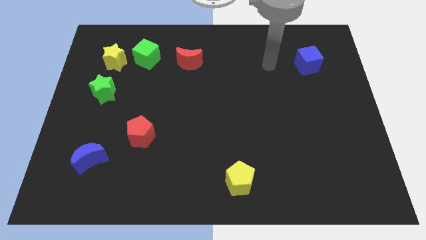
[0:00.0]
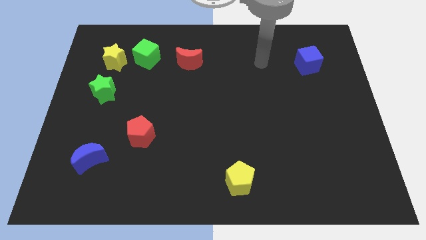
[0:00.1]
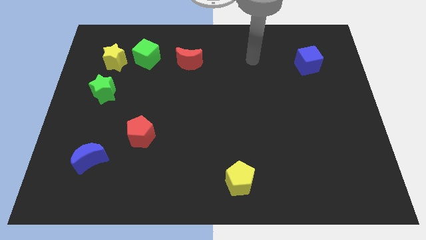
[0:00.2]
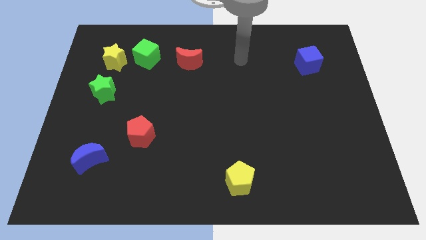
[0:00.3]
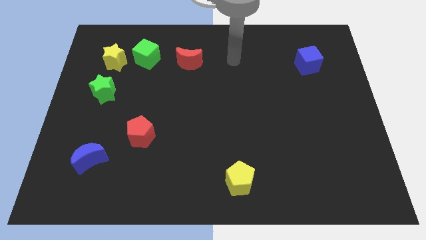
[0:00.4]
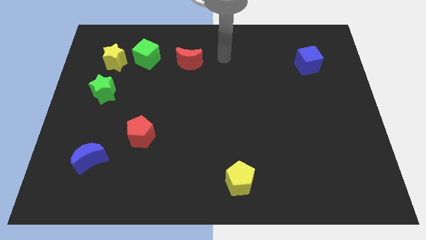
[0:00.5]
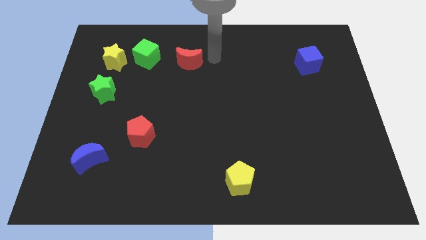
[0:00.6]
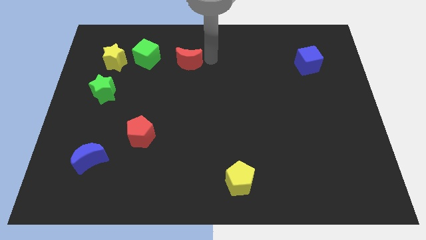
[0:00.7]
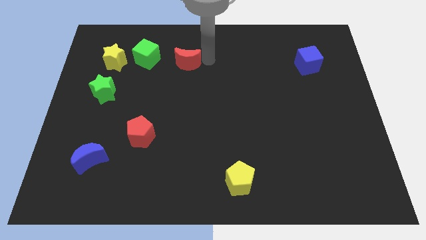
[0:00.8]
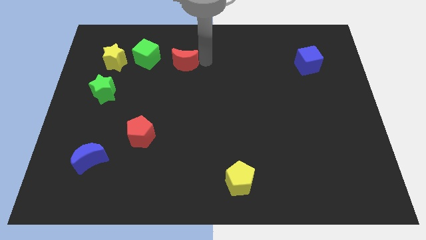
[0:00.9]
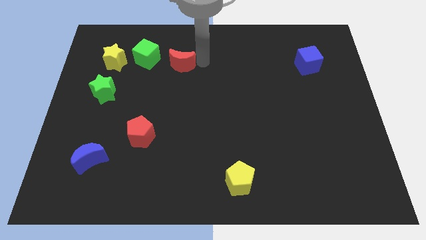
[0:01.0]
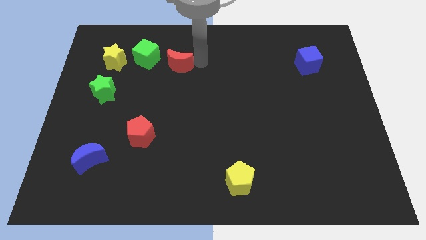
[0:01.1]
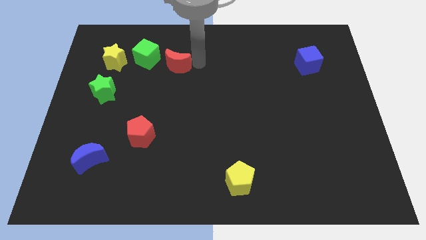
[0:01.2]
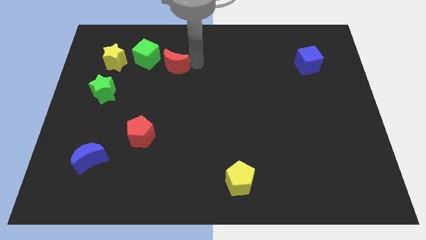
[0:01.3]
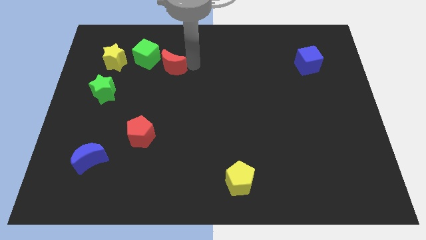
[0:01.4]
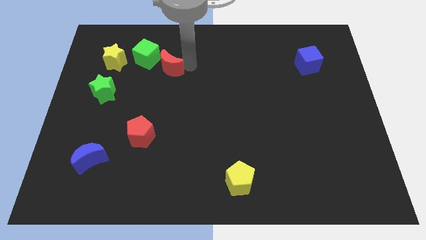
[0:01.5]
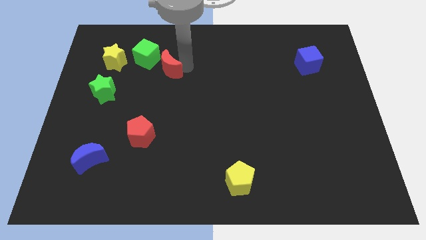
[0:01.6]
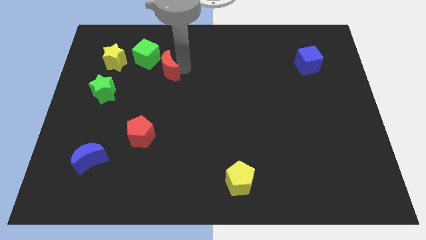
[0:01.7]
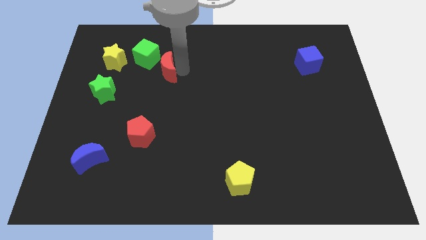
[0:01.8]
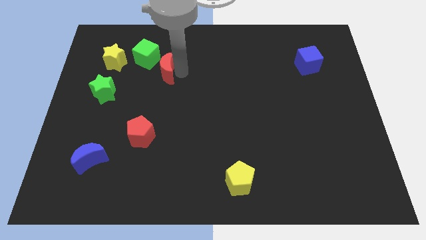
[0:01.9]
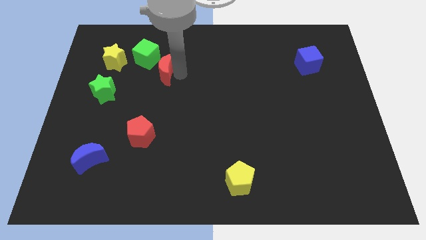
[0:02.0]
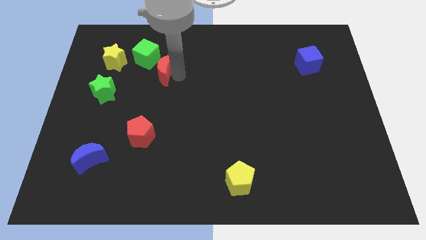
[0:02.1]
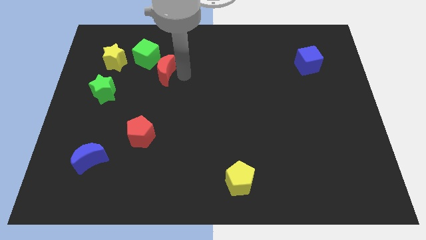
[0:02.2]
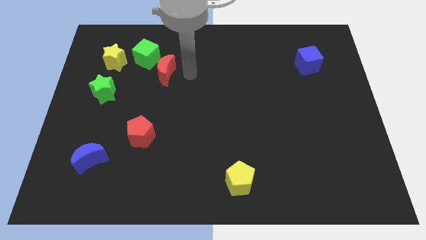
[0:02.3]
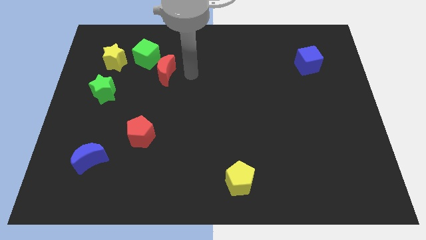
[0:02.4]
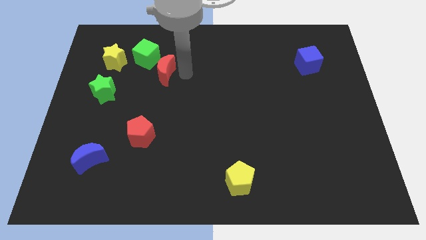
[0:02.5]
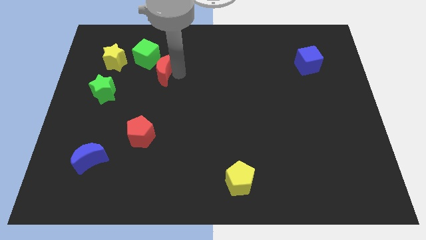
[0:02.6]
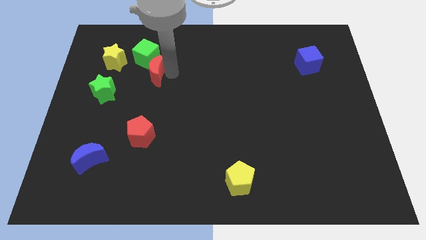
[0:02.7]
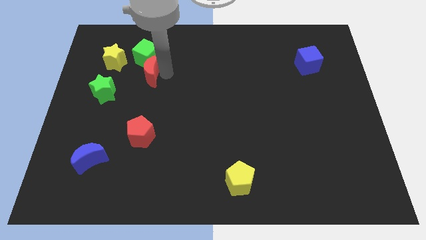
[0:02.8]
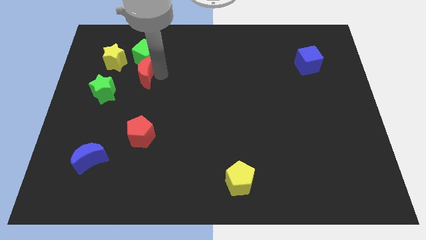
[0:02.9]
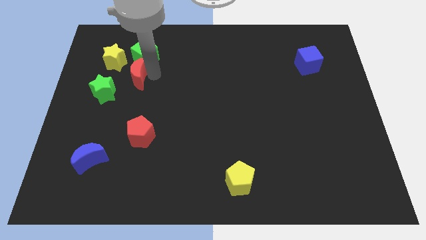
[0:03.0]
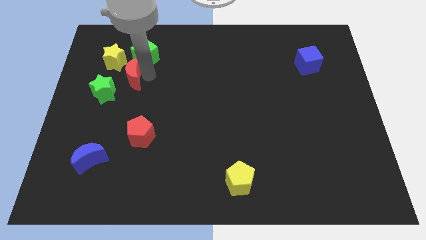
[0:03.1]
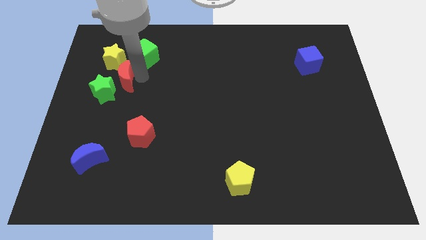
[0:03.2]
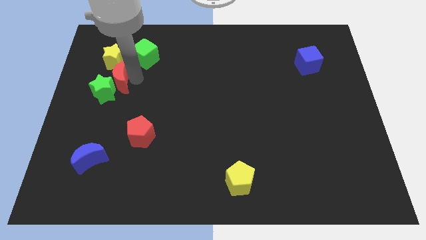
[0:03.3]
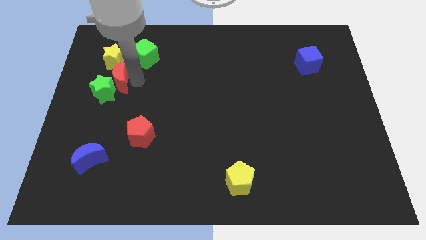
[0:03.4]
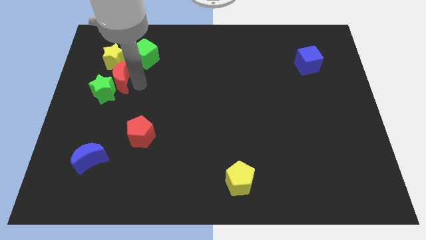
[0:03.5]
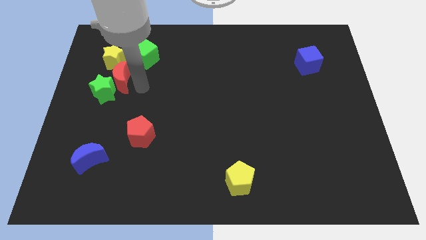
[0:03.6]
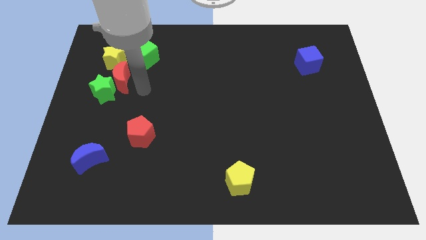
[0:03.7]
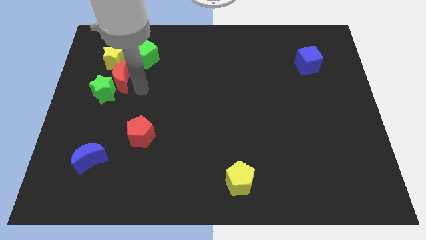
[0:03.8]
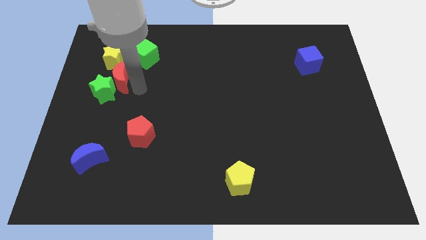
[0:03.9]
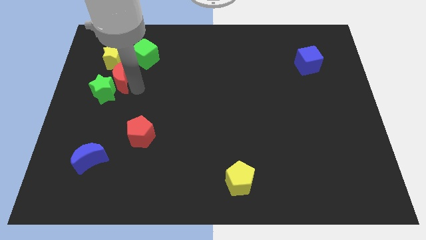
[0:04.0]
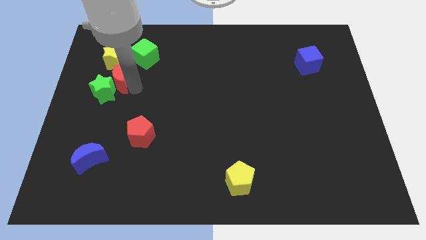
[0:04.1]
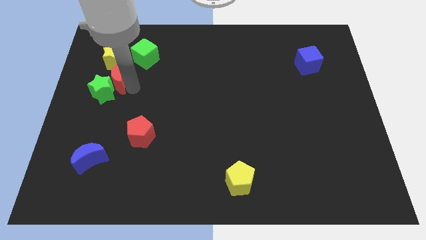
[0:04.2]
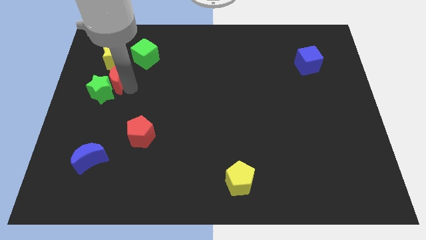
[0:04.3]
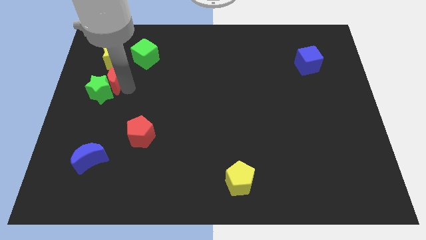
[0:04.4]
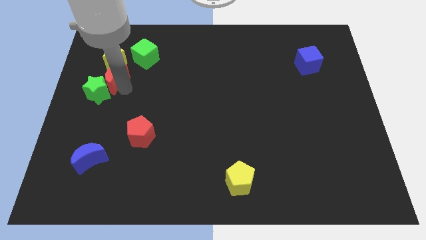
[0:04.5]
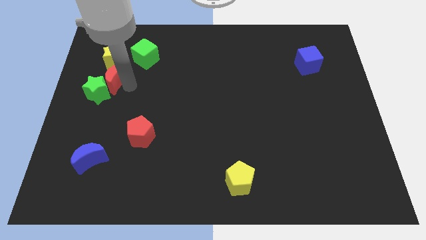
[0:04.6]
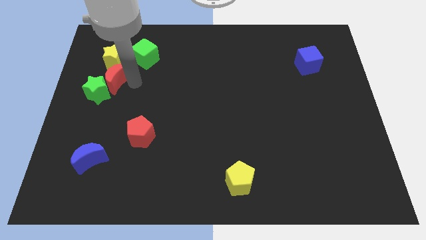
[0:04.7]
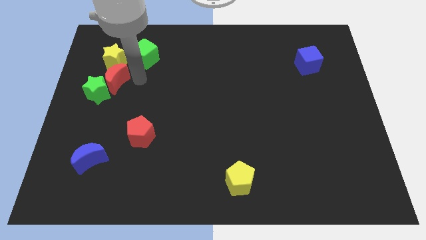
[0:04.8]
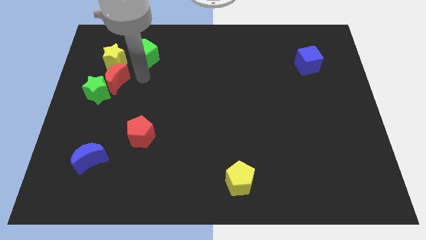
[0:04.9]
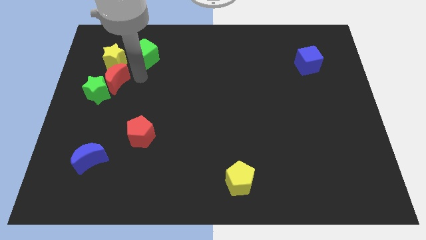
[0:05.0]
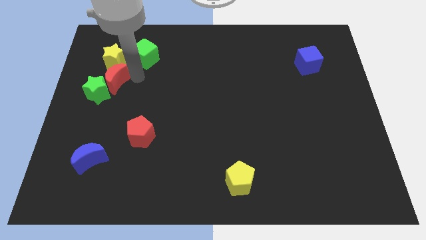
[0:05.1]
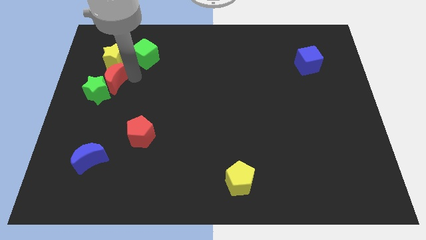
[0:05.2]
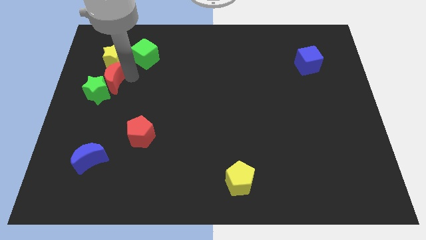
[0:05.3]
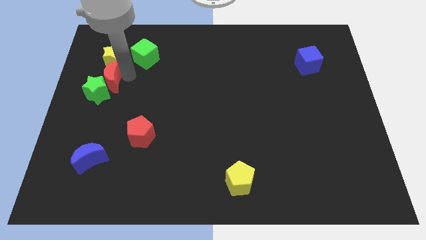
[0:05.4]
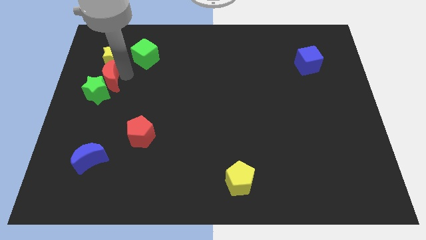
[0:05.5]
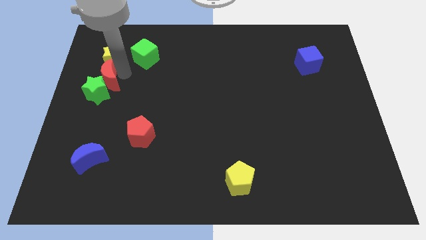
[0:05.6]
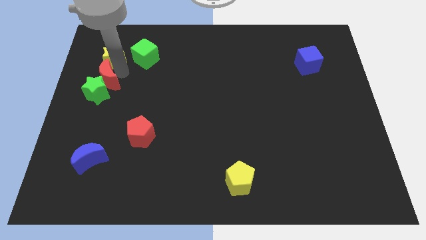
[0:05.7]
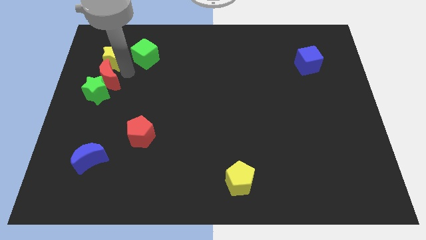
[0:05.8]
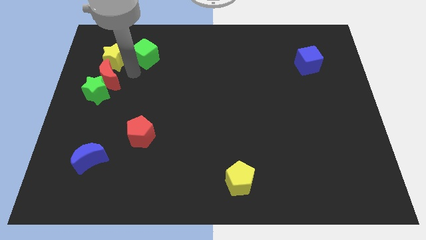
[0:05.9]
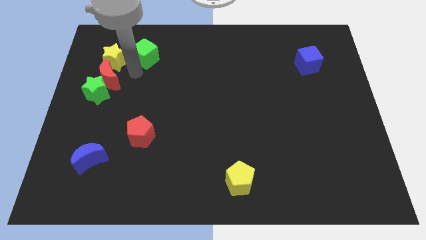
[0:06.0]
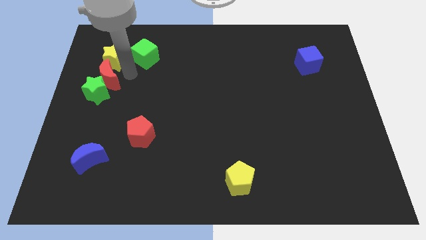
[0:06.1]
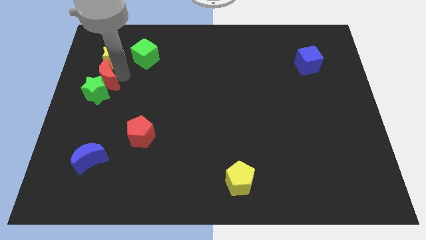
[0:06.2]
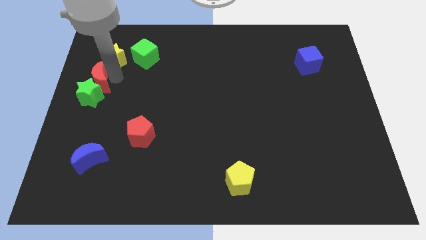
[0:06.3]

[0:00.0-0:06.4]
put the red moon to the left side of the board
